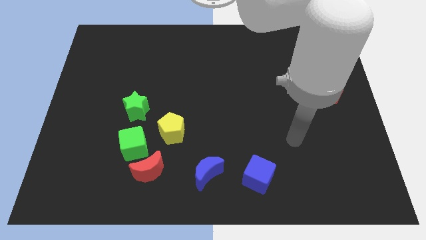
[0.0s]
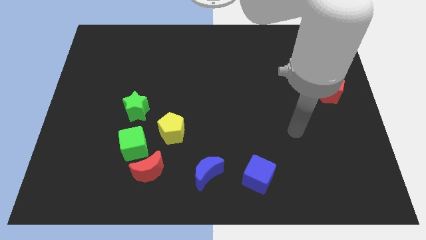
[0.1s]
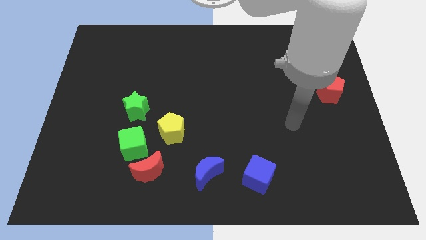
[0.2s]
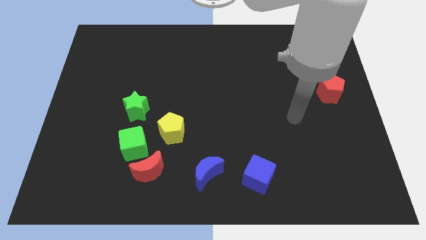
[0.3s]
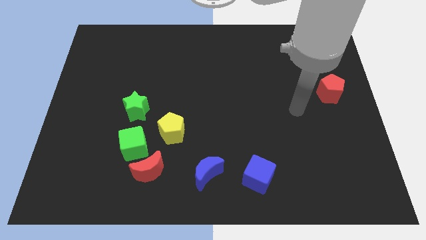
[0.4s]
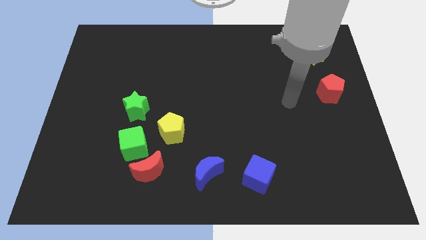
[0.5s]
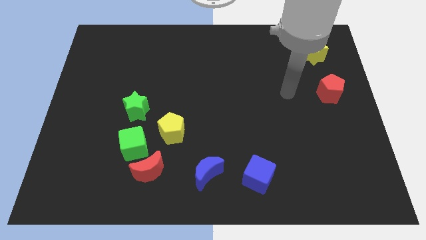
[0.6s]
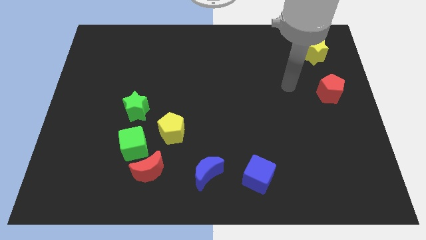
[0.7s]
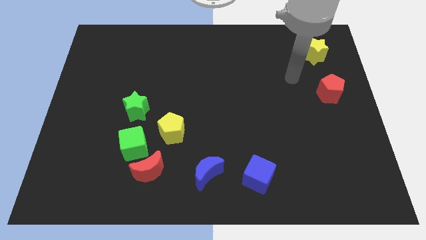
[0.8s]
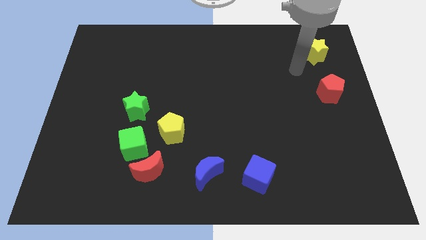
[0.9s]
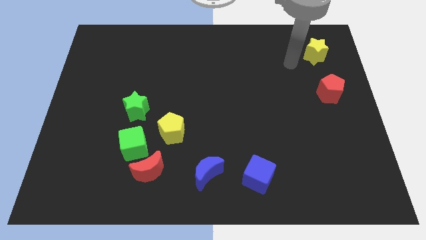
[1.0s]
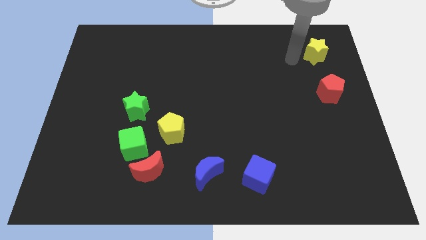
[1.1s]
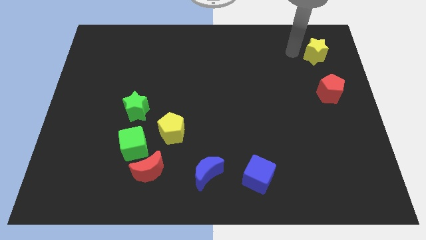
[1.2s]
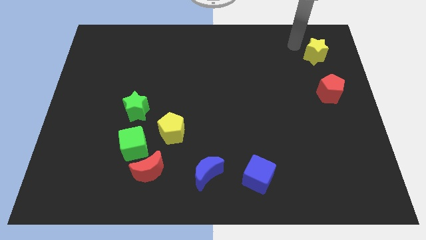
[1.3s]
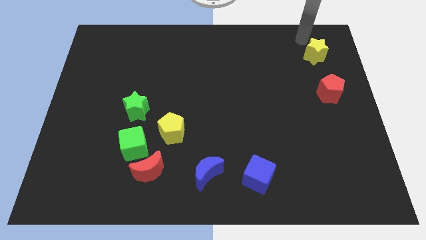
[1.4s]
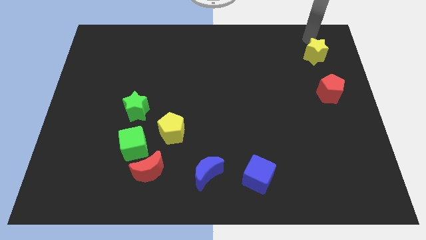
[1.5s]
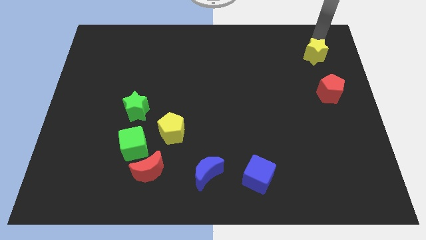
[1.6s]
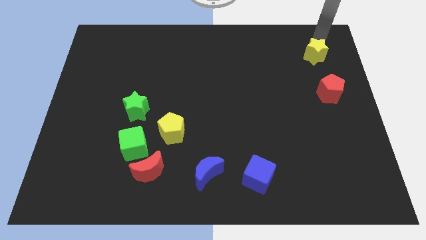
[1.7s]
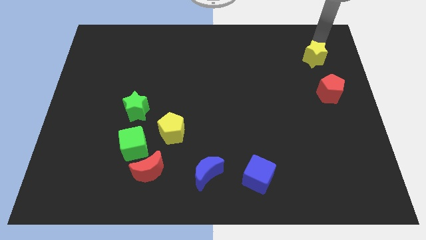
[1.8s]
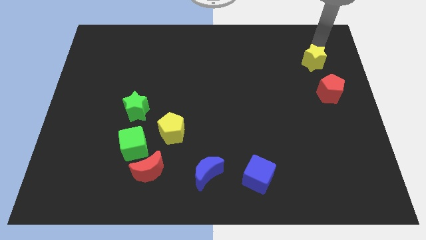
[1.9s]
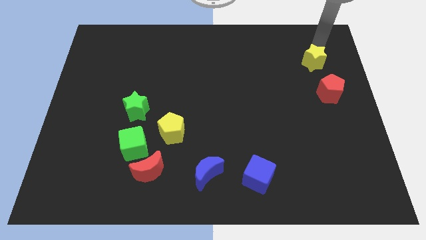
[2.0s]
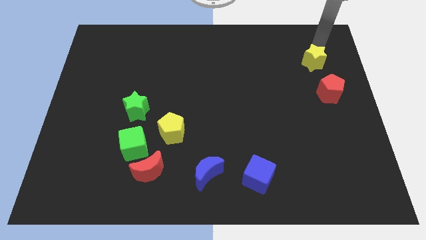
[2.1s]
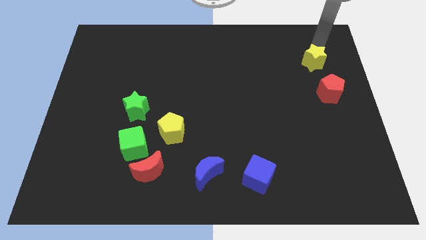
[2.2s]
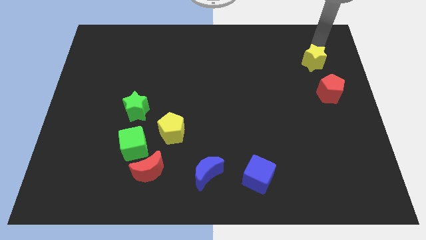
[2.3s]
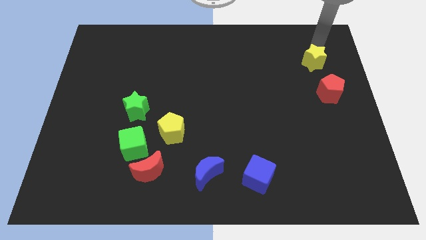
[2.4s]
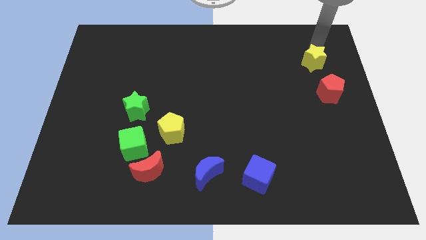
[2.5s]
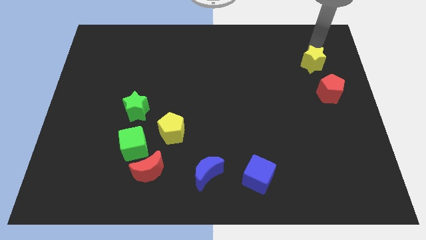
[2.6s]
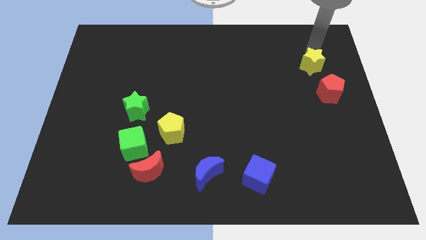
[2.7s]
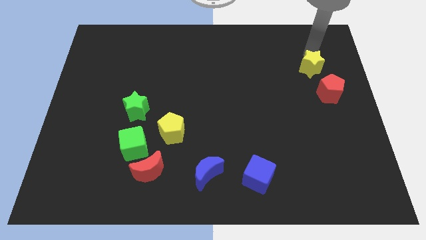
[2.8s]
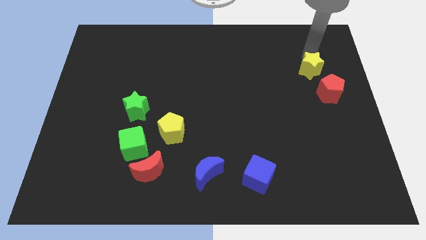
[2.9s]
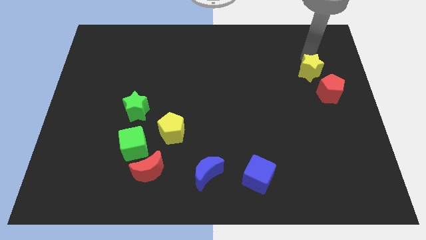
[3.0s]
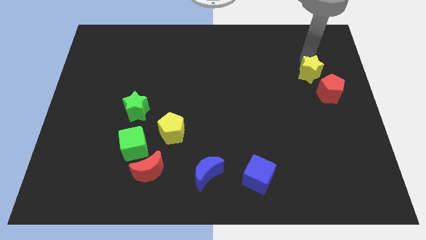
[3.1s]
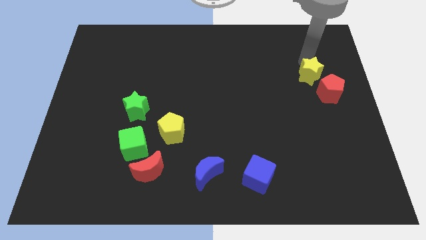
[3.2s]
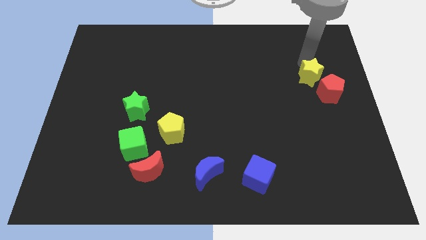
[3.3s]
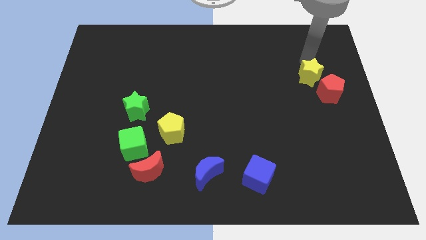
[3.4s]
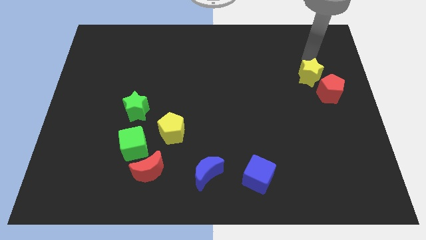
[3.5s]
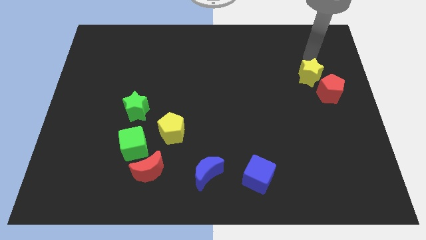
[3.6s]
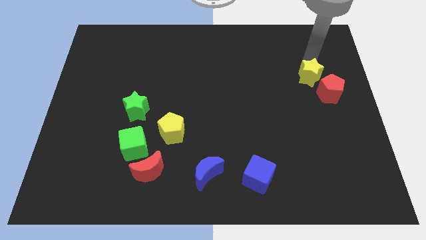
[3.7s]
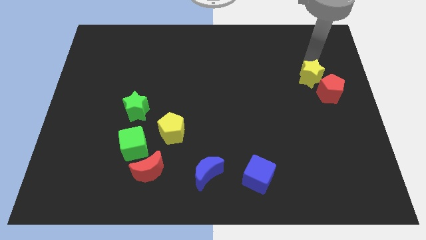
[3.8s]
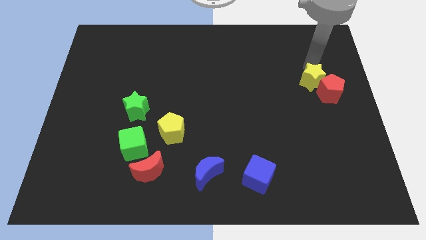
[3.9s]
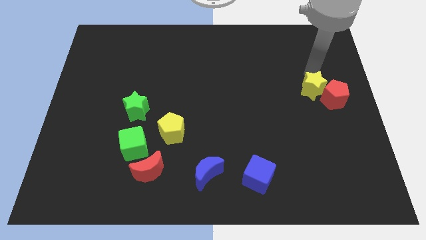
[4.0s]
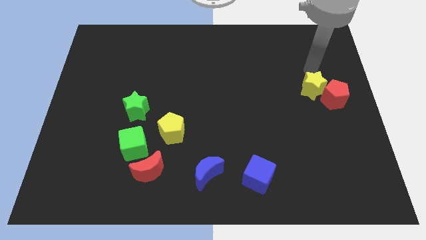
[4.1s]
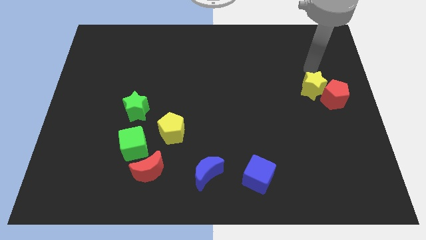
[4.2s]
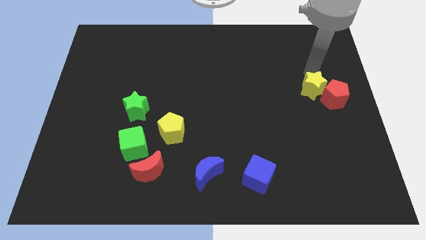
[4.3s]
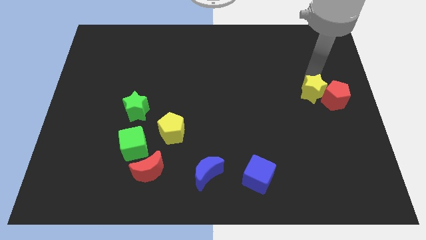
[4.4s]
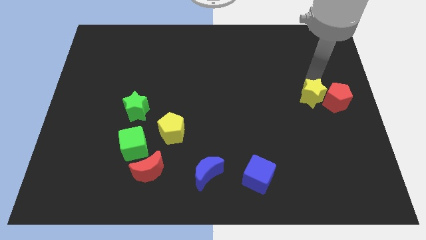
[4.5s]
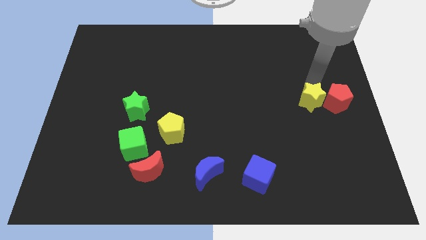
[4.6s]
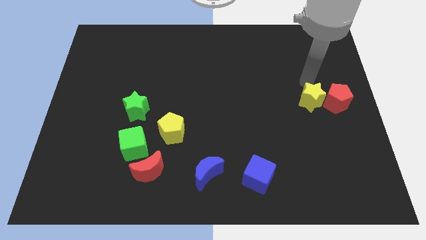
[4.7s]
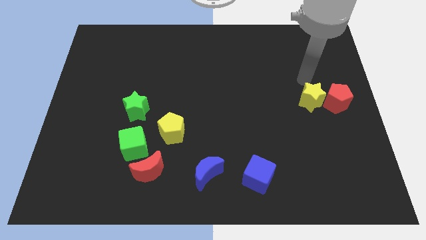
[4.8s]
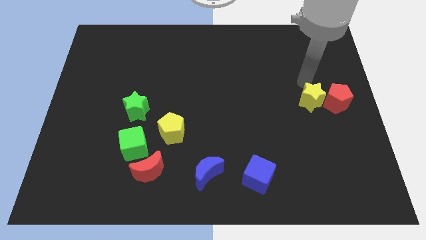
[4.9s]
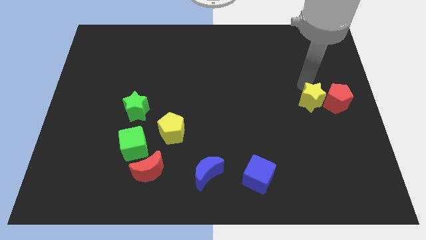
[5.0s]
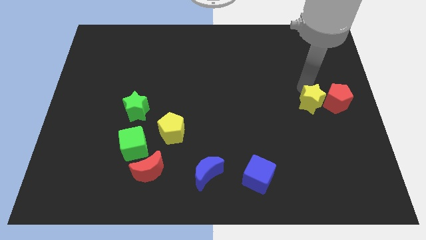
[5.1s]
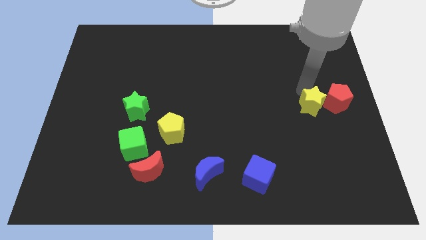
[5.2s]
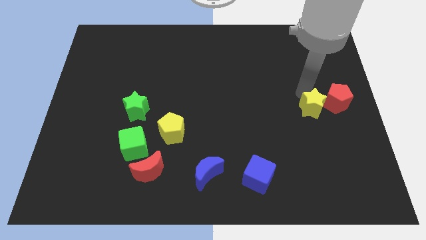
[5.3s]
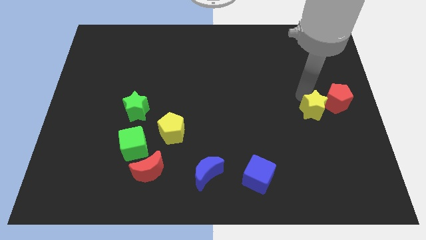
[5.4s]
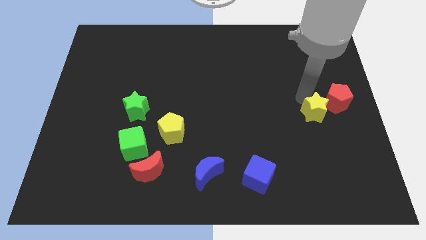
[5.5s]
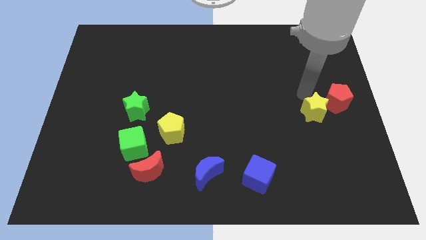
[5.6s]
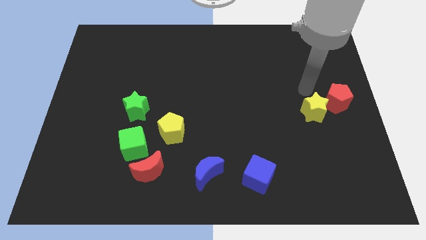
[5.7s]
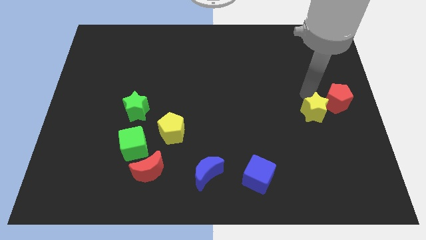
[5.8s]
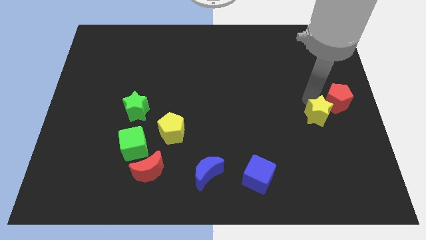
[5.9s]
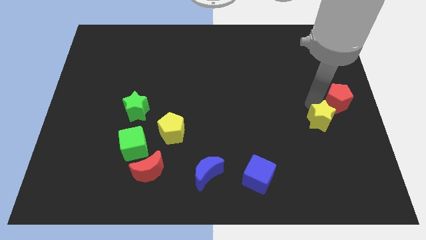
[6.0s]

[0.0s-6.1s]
slide the yellow star down

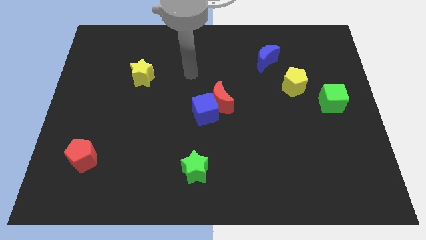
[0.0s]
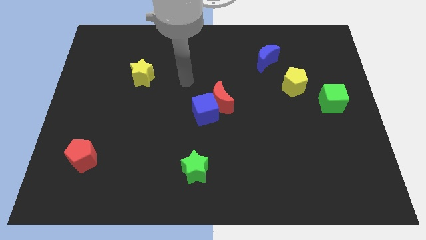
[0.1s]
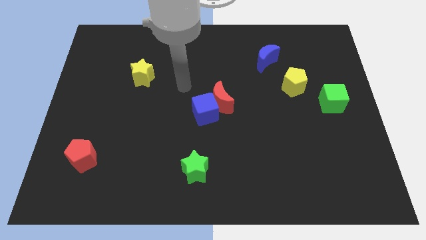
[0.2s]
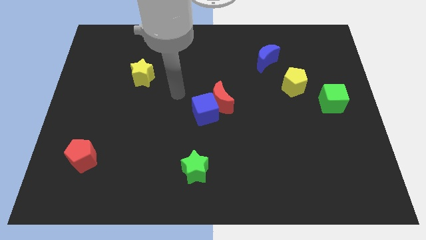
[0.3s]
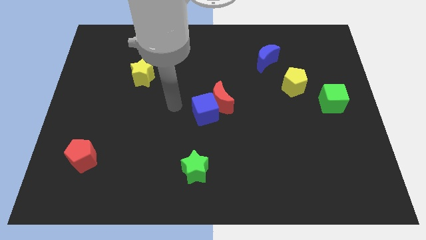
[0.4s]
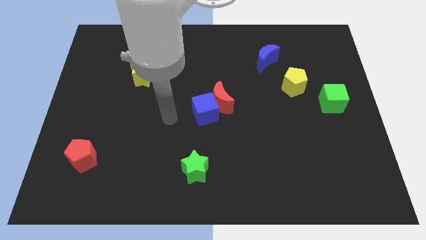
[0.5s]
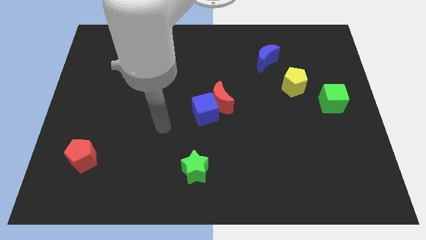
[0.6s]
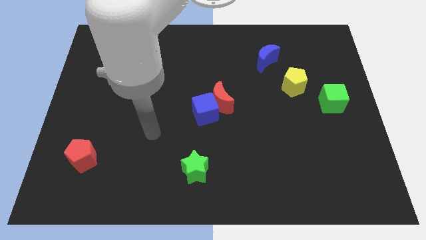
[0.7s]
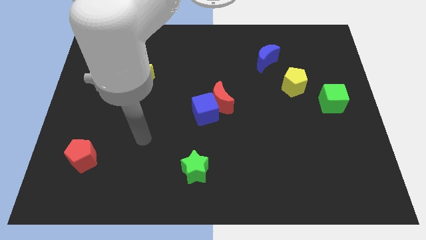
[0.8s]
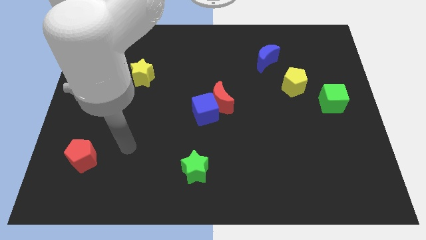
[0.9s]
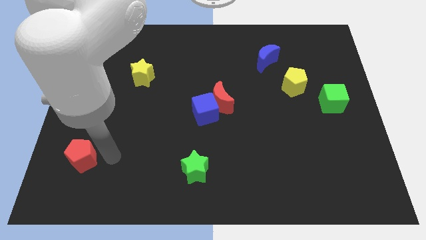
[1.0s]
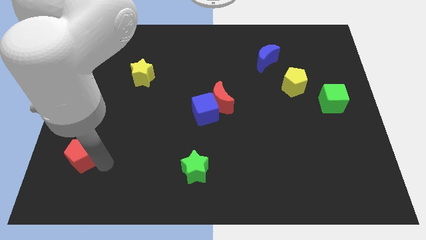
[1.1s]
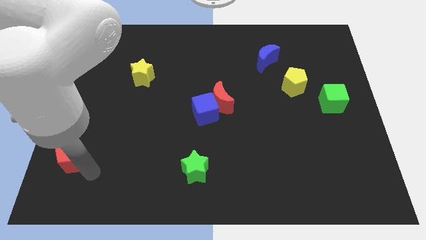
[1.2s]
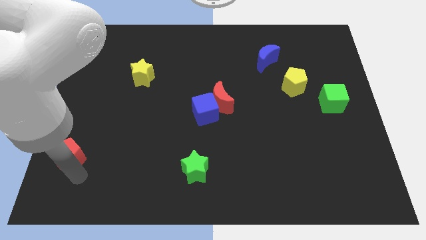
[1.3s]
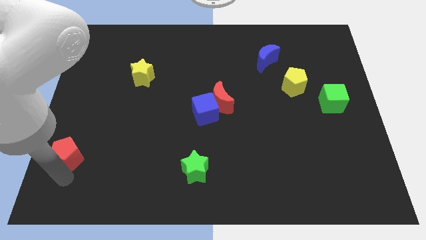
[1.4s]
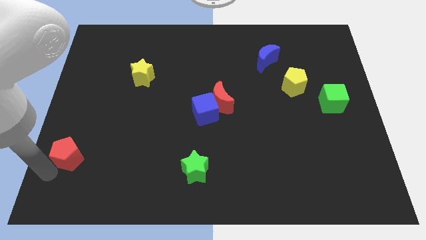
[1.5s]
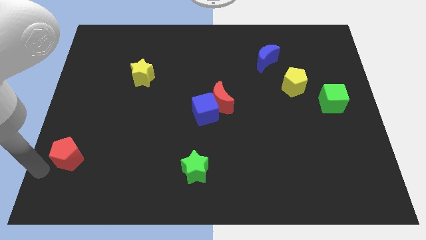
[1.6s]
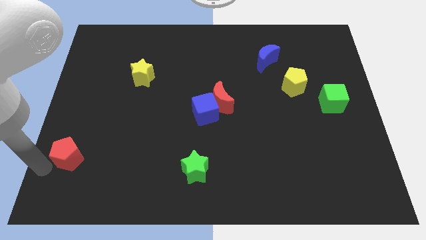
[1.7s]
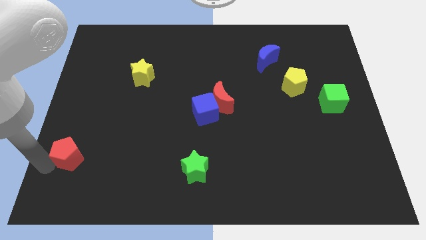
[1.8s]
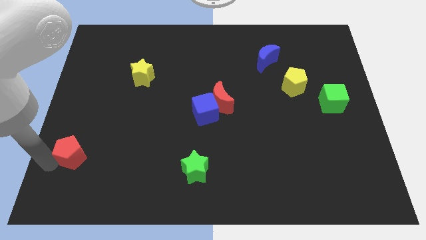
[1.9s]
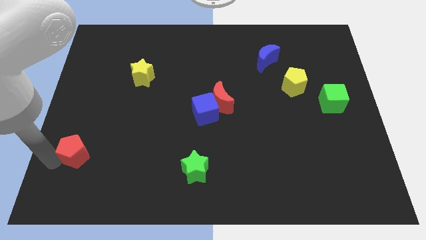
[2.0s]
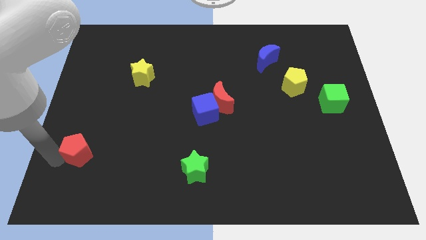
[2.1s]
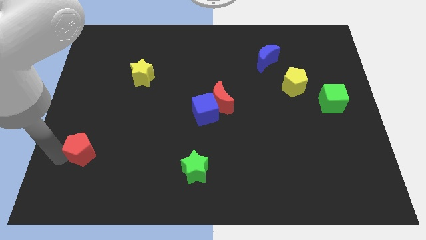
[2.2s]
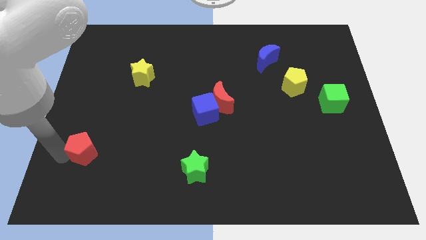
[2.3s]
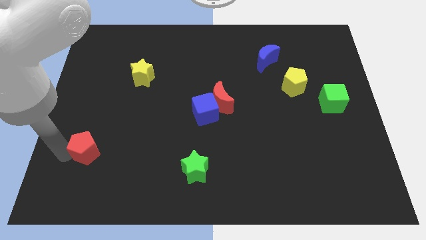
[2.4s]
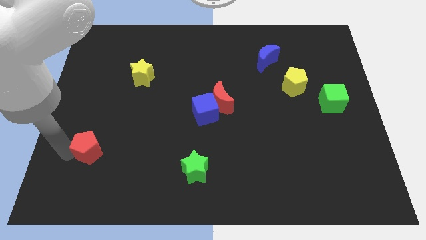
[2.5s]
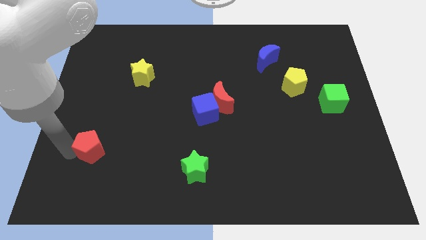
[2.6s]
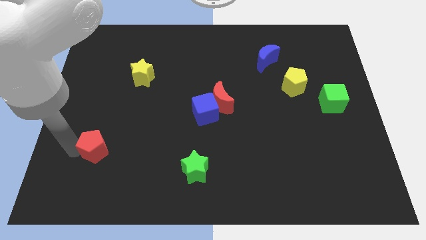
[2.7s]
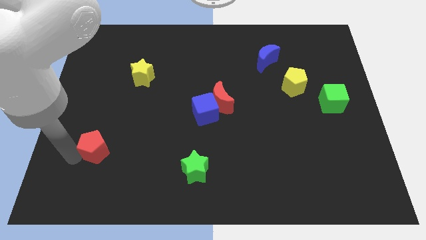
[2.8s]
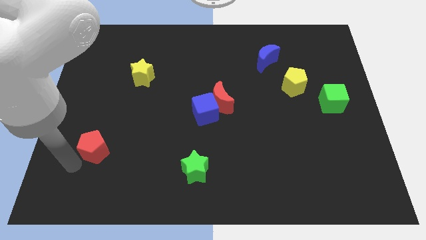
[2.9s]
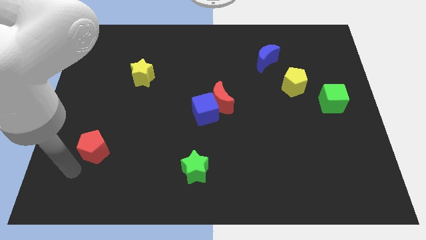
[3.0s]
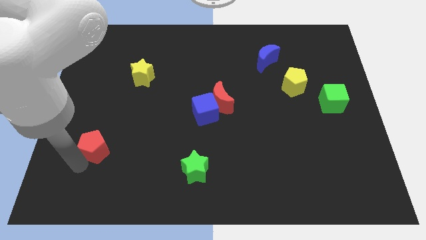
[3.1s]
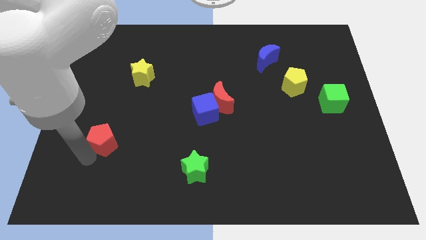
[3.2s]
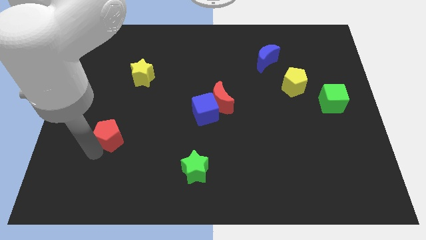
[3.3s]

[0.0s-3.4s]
push the red pentagon up and right slightly
